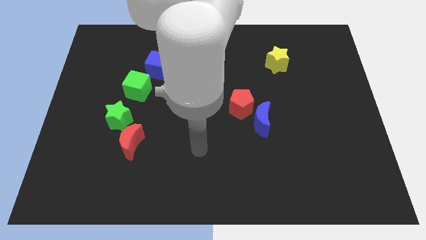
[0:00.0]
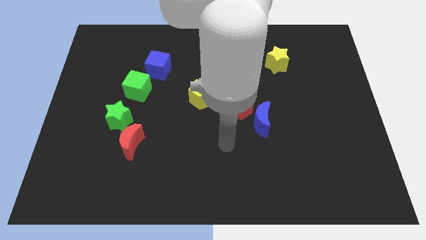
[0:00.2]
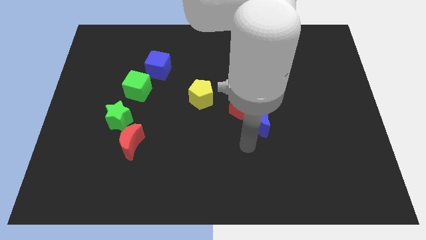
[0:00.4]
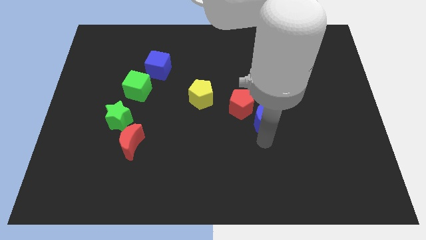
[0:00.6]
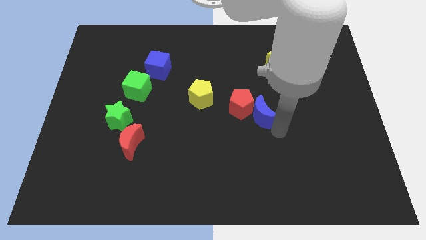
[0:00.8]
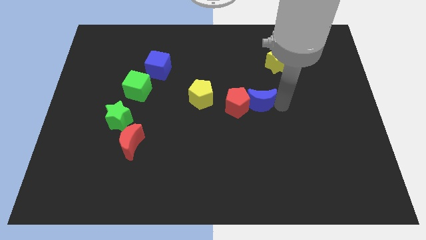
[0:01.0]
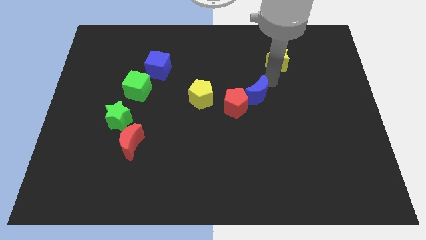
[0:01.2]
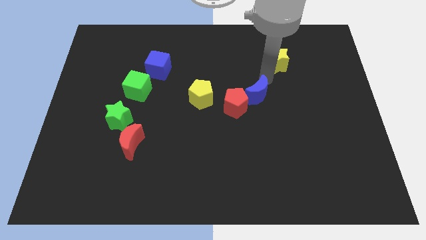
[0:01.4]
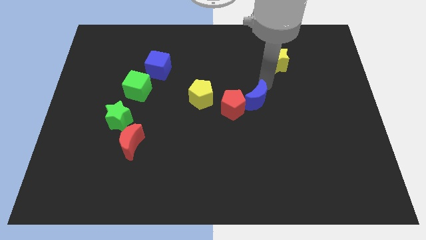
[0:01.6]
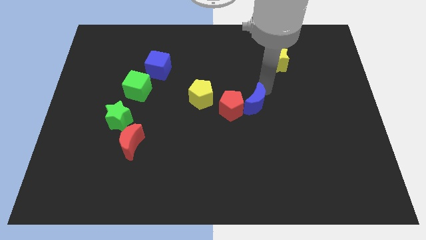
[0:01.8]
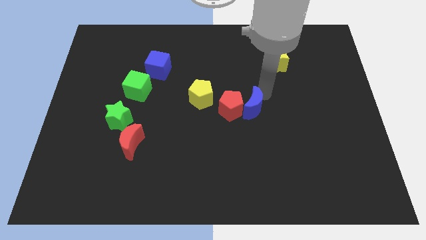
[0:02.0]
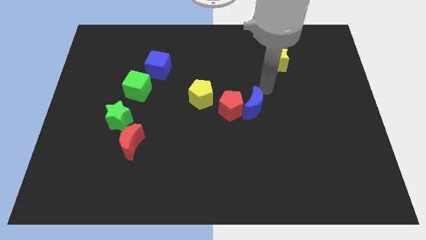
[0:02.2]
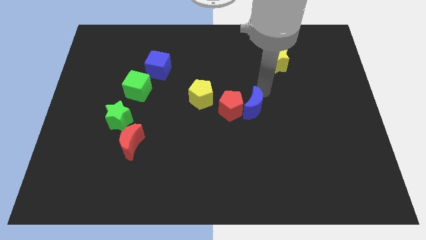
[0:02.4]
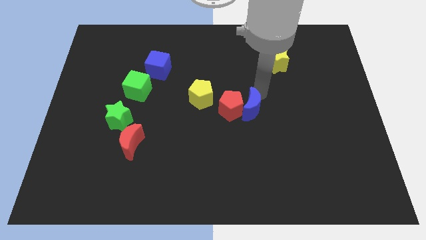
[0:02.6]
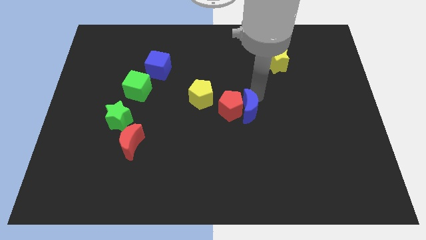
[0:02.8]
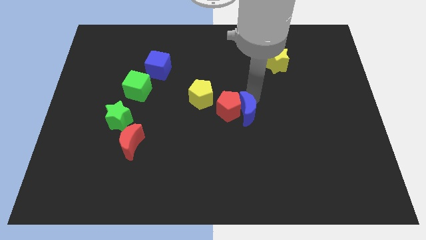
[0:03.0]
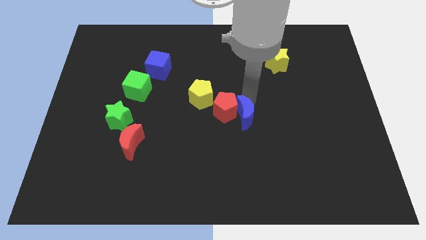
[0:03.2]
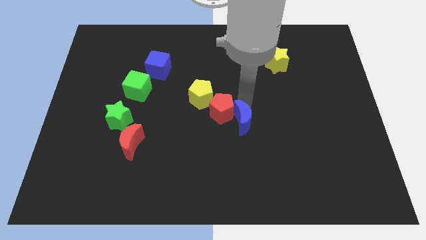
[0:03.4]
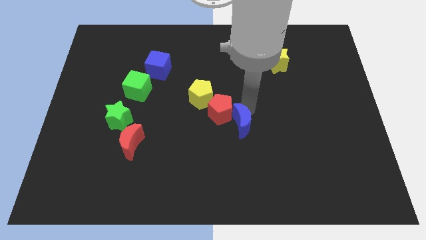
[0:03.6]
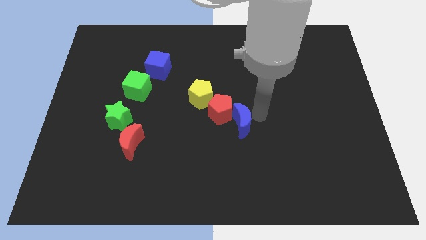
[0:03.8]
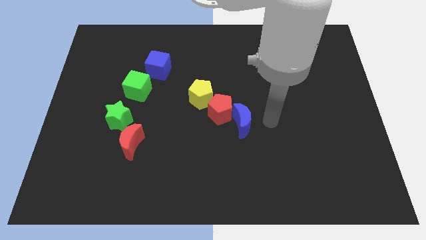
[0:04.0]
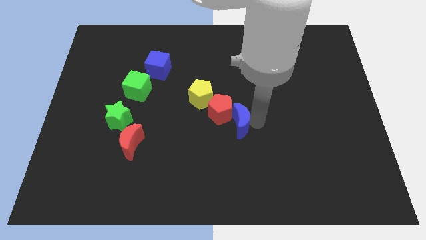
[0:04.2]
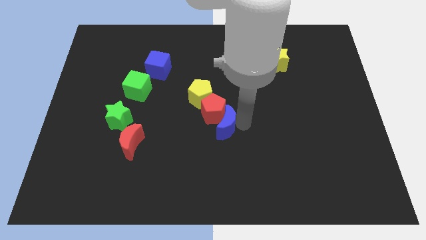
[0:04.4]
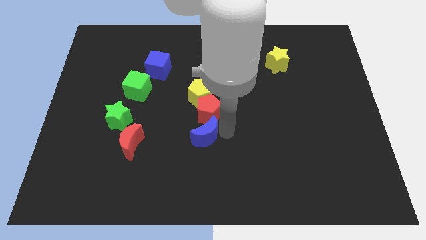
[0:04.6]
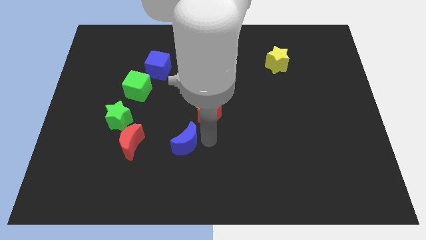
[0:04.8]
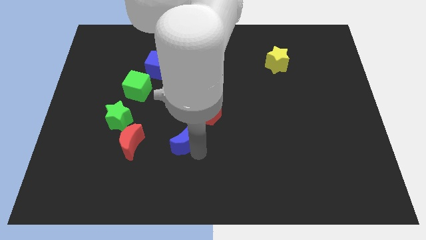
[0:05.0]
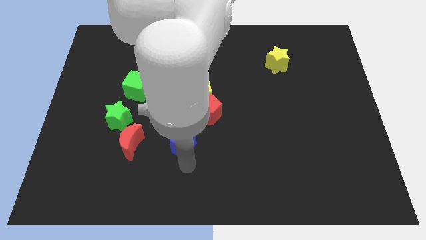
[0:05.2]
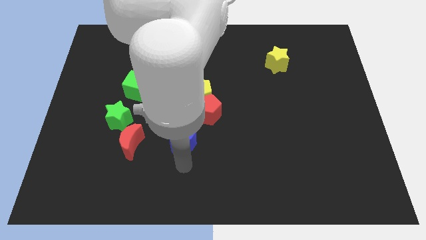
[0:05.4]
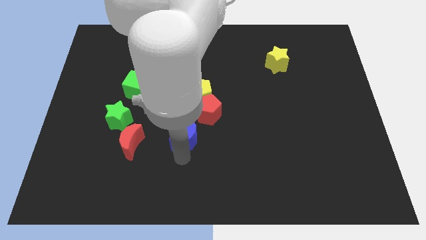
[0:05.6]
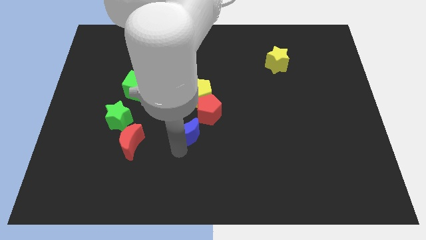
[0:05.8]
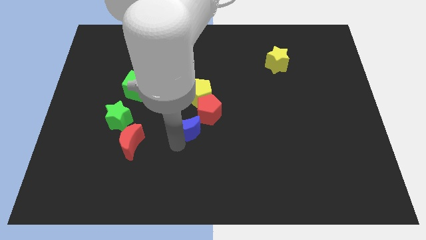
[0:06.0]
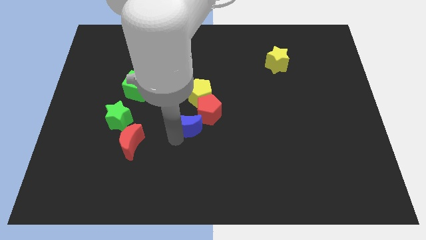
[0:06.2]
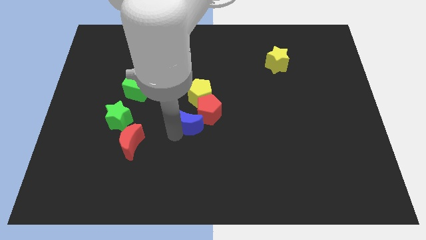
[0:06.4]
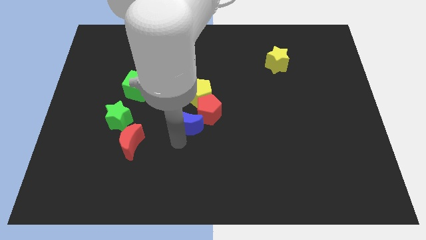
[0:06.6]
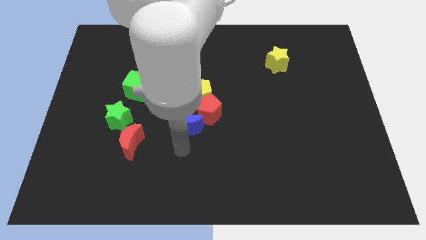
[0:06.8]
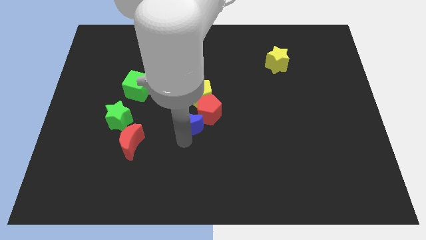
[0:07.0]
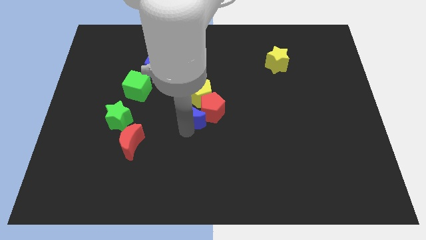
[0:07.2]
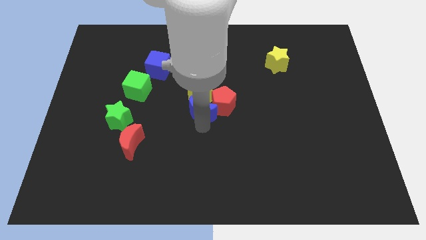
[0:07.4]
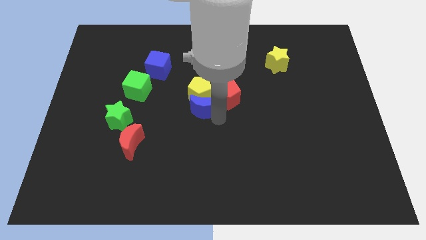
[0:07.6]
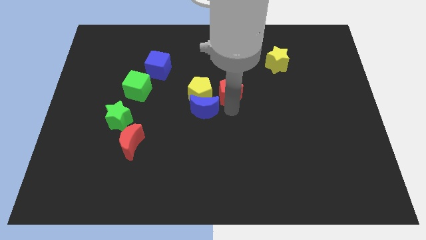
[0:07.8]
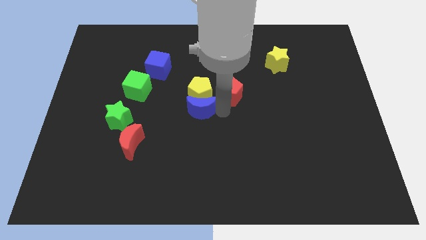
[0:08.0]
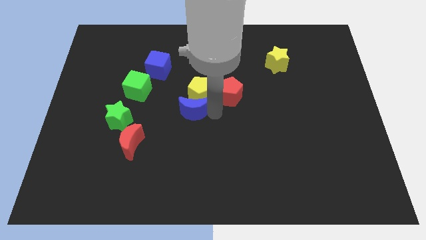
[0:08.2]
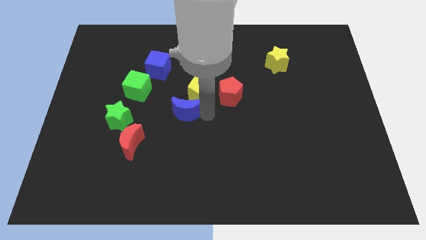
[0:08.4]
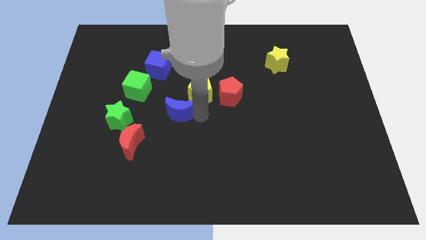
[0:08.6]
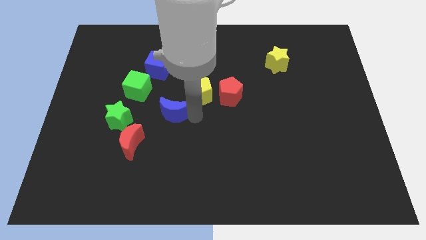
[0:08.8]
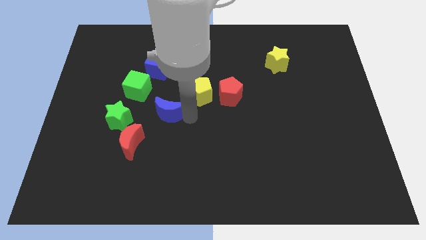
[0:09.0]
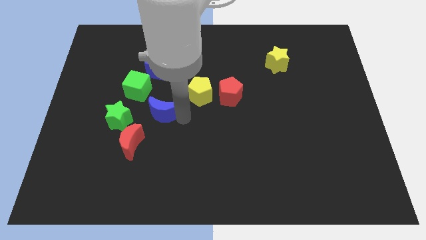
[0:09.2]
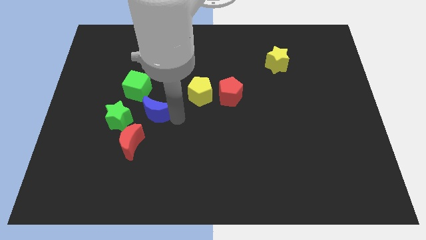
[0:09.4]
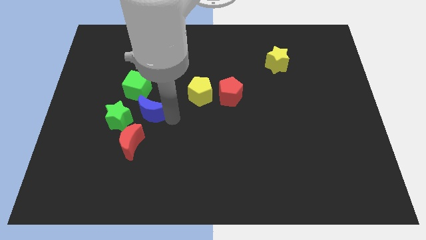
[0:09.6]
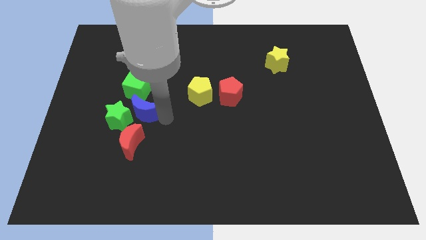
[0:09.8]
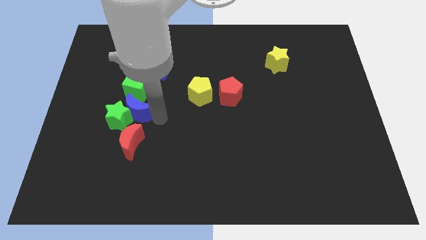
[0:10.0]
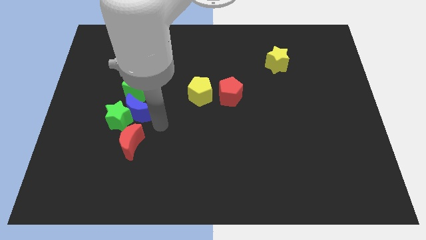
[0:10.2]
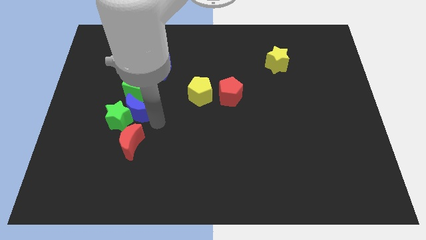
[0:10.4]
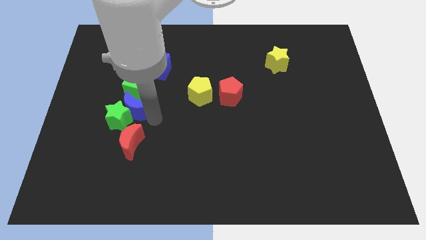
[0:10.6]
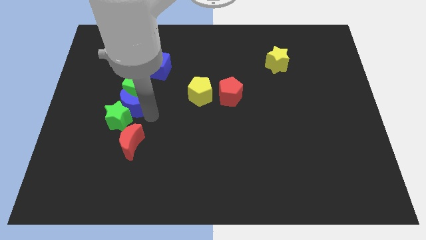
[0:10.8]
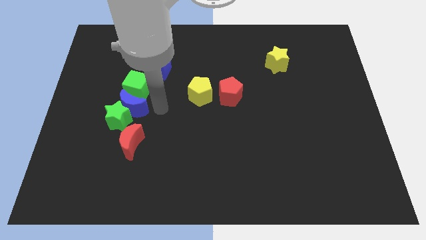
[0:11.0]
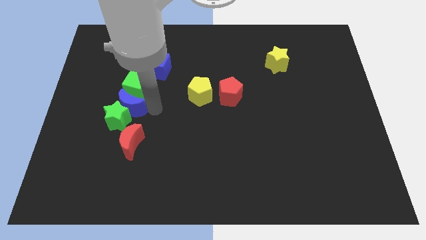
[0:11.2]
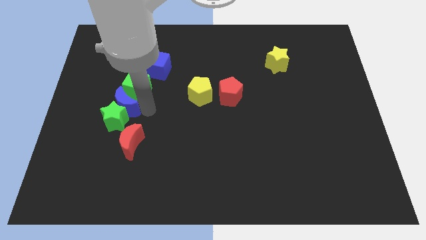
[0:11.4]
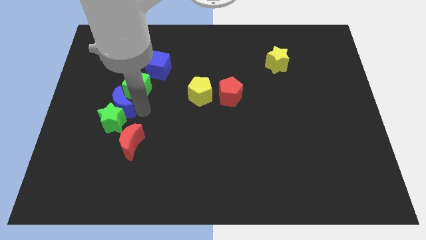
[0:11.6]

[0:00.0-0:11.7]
push the blue moon diagonally up and to the left of the red moon

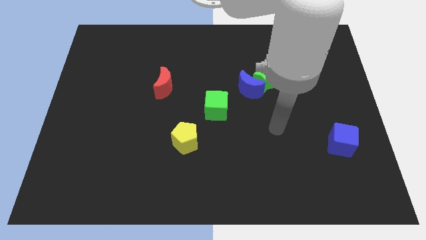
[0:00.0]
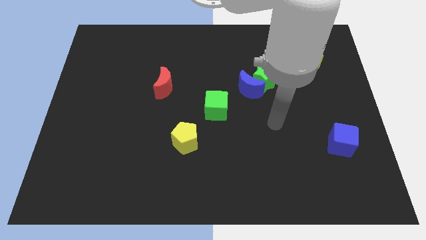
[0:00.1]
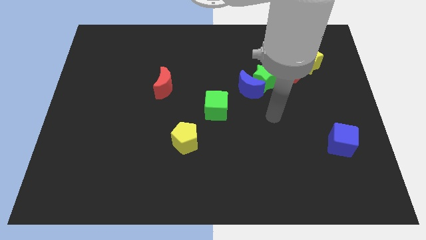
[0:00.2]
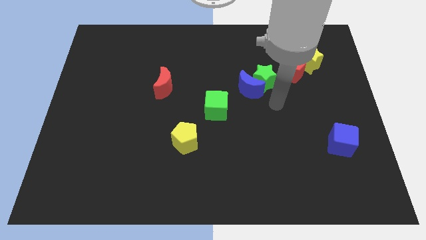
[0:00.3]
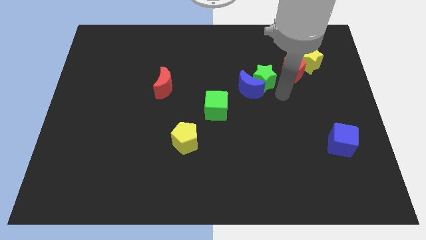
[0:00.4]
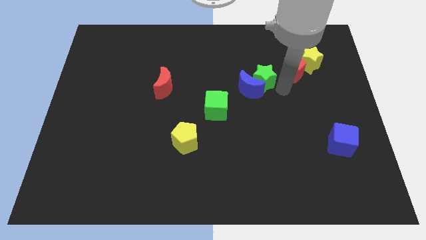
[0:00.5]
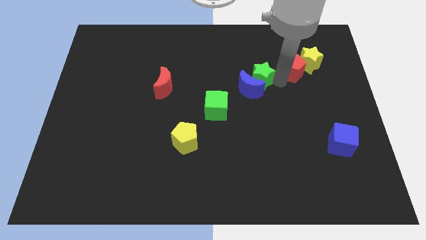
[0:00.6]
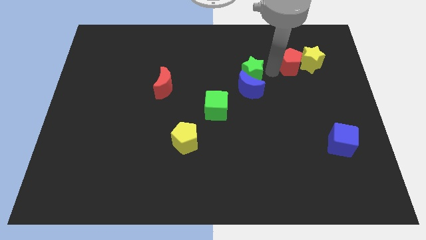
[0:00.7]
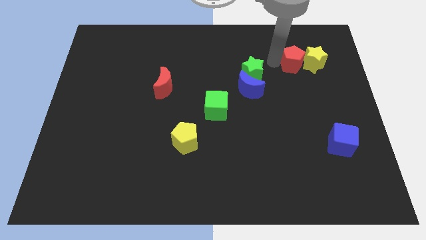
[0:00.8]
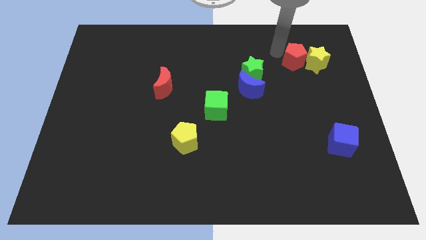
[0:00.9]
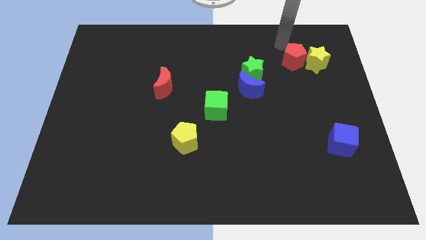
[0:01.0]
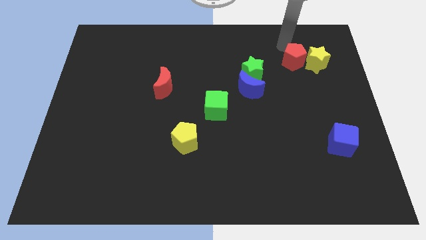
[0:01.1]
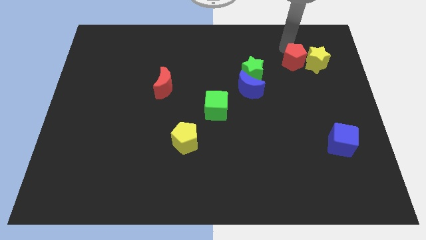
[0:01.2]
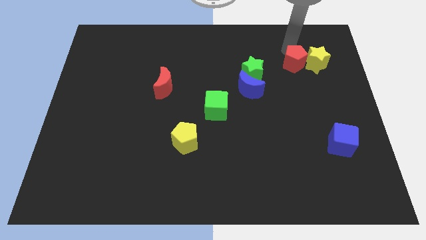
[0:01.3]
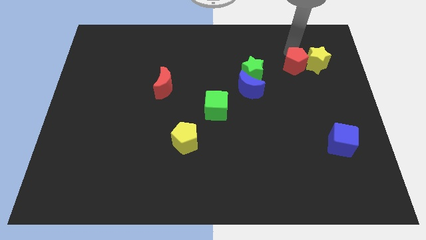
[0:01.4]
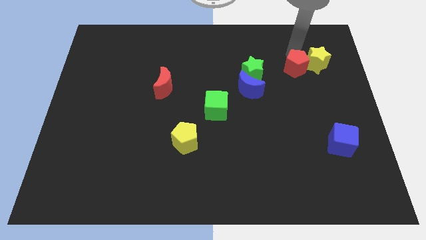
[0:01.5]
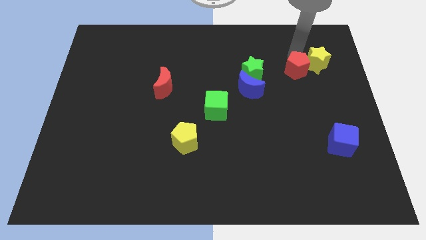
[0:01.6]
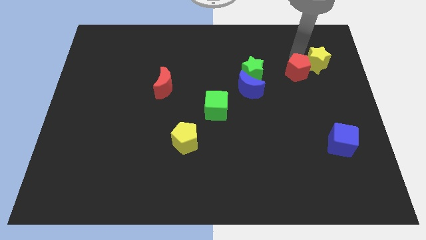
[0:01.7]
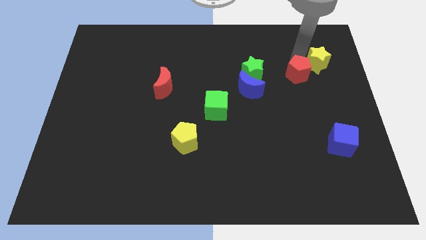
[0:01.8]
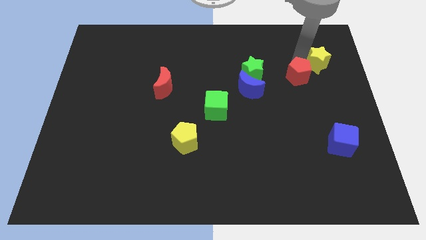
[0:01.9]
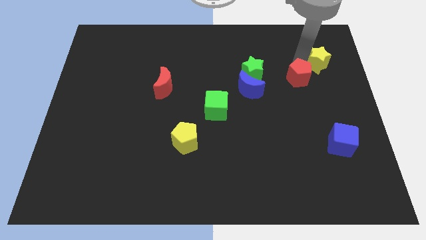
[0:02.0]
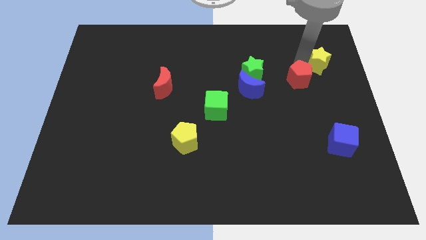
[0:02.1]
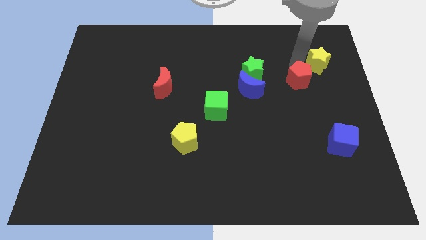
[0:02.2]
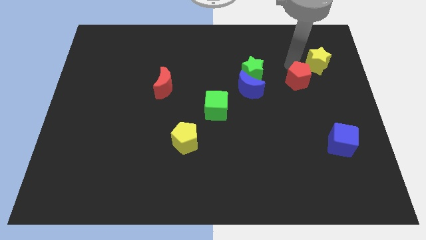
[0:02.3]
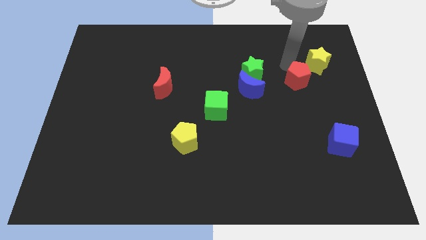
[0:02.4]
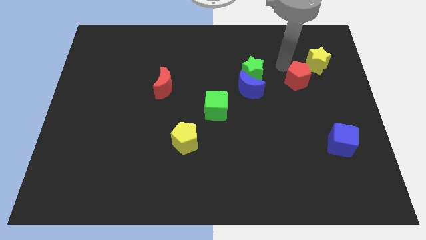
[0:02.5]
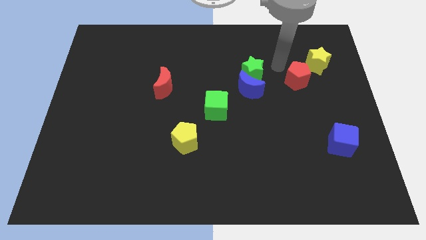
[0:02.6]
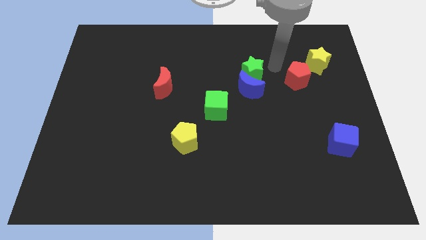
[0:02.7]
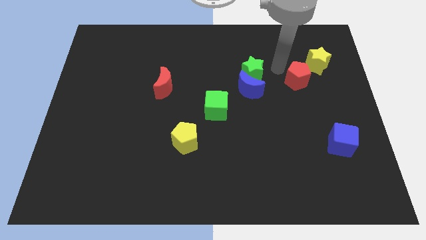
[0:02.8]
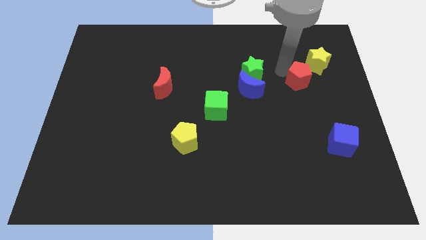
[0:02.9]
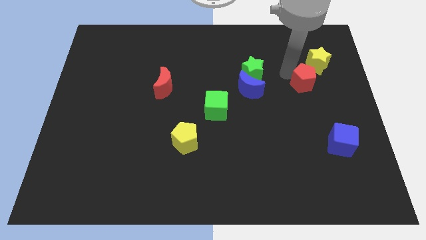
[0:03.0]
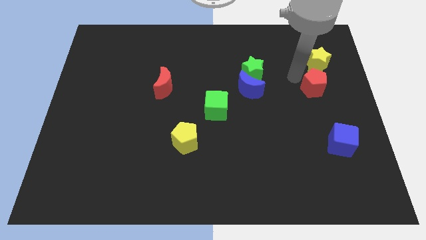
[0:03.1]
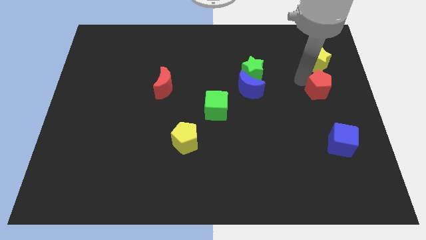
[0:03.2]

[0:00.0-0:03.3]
push the red pentagon above the blue cube
